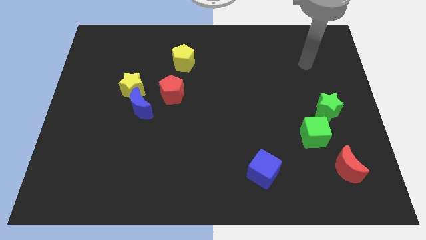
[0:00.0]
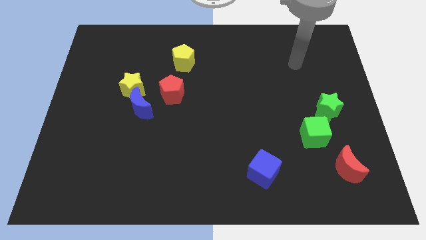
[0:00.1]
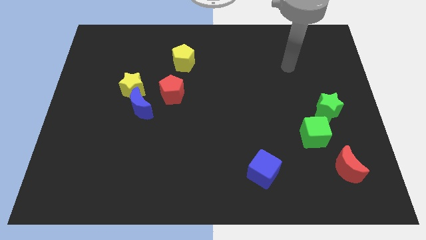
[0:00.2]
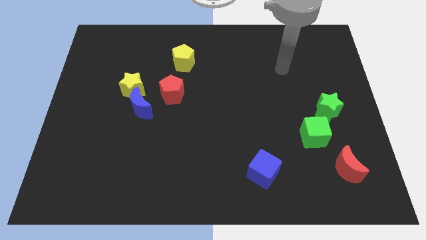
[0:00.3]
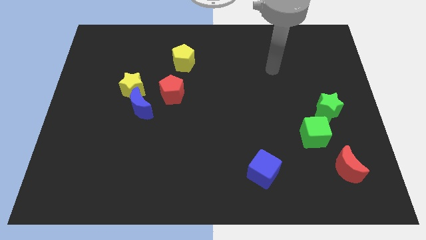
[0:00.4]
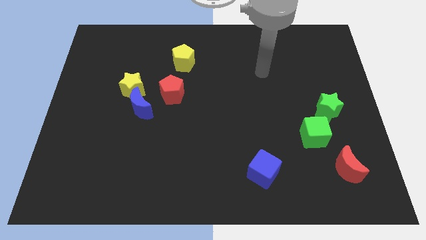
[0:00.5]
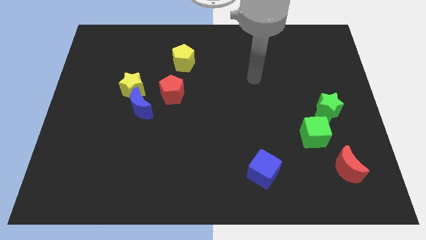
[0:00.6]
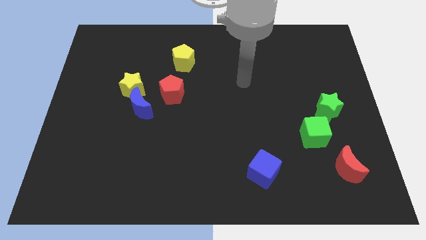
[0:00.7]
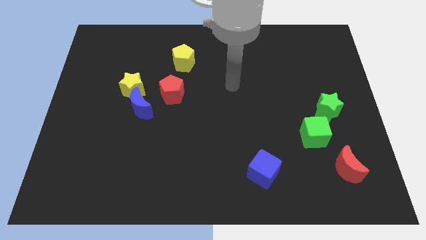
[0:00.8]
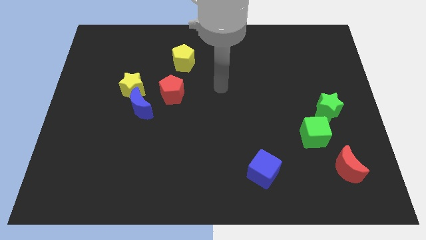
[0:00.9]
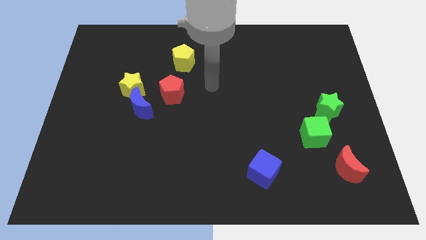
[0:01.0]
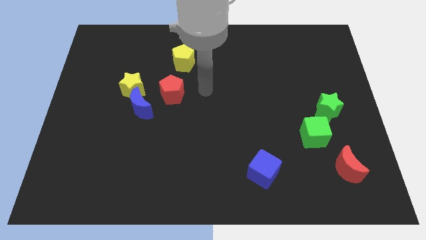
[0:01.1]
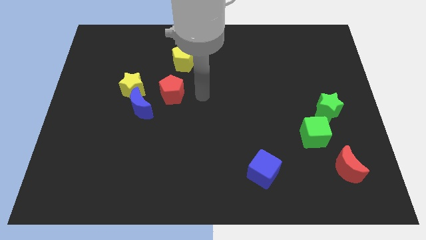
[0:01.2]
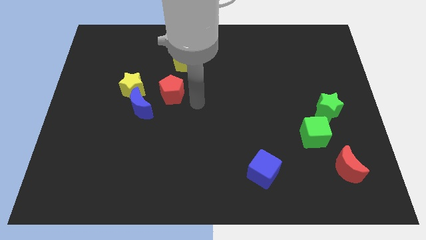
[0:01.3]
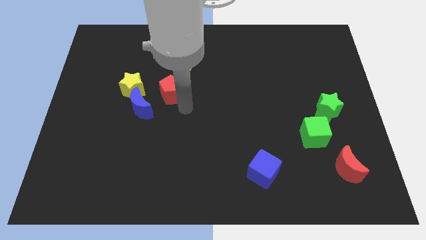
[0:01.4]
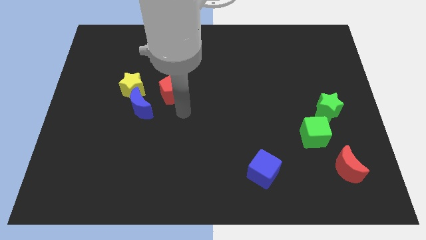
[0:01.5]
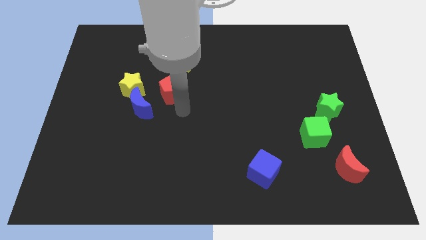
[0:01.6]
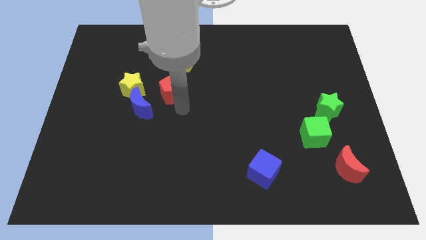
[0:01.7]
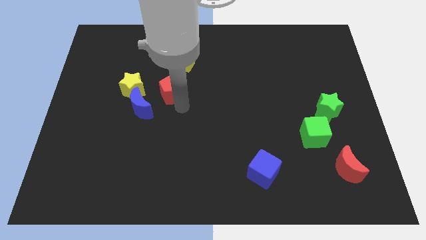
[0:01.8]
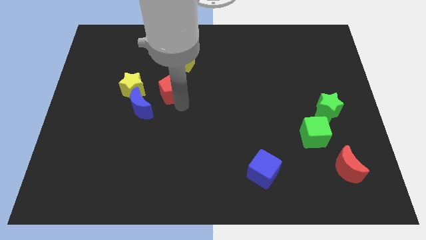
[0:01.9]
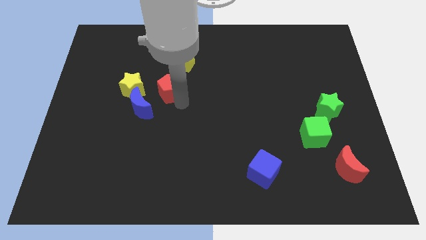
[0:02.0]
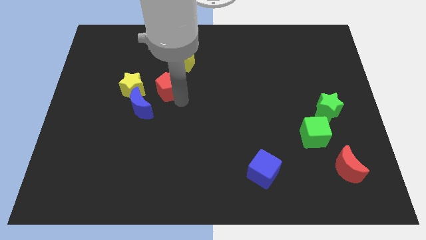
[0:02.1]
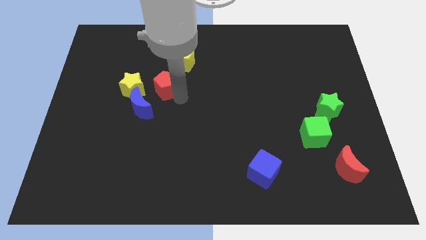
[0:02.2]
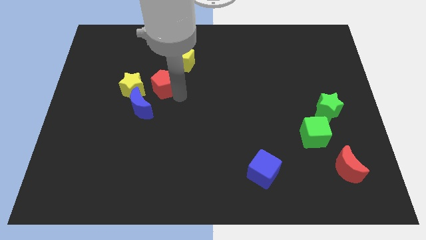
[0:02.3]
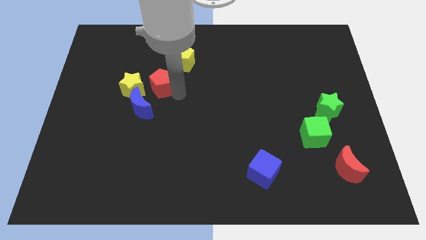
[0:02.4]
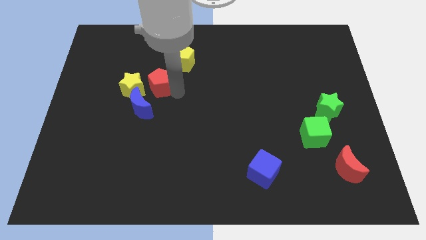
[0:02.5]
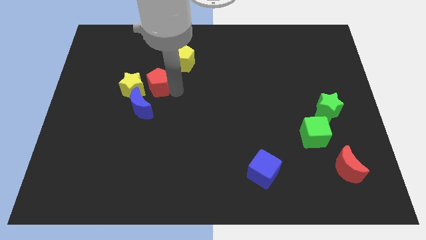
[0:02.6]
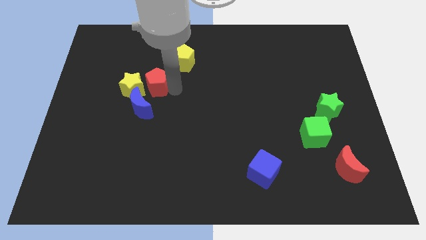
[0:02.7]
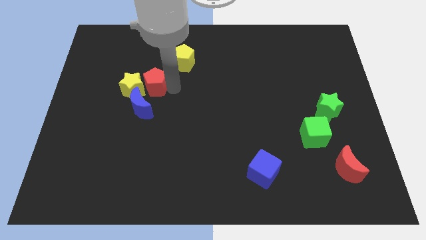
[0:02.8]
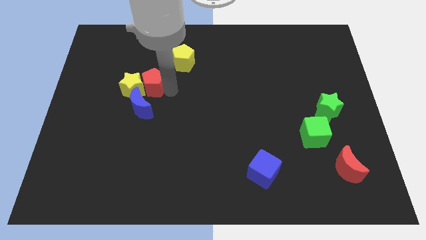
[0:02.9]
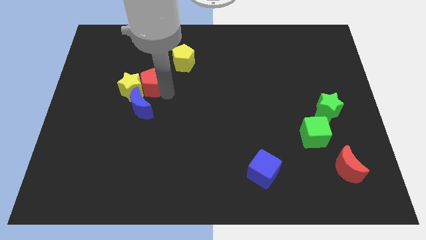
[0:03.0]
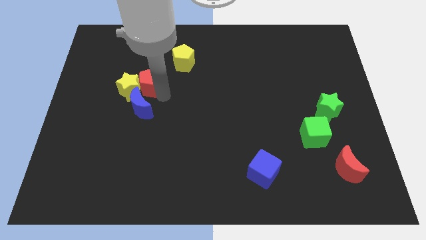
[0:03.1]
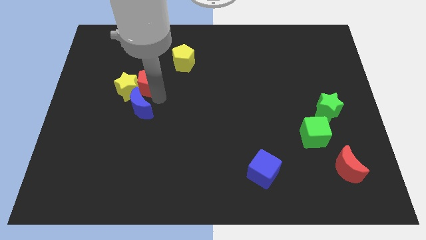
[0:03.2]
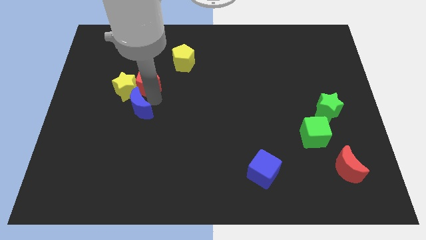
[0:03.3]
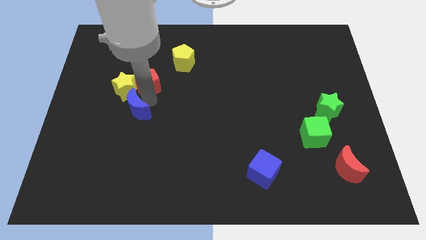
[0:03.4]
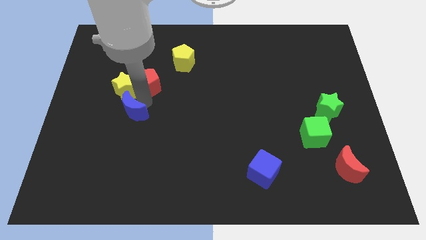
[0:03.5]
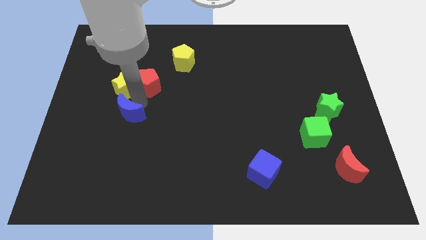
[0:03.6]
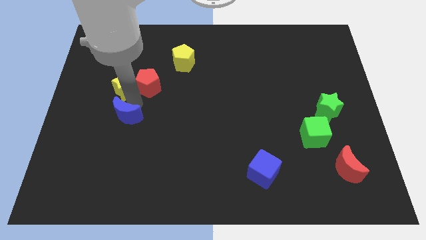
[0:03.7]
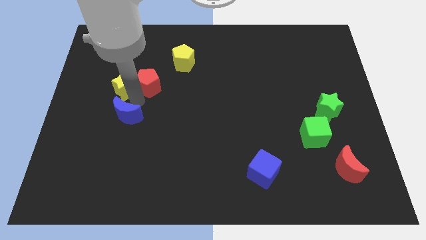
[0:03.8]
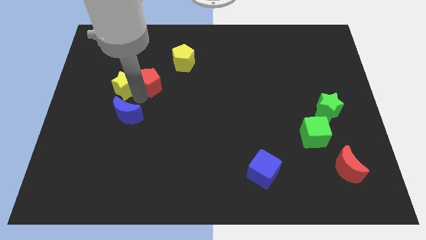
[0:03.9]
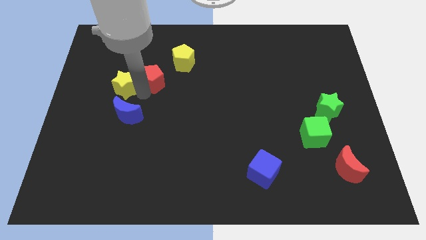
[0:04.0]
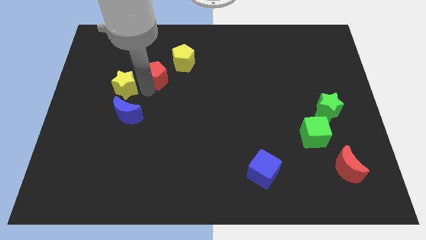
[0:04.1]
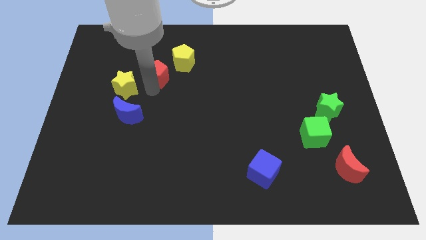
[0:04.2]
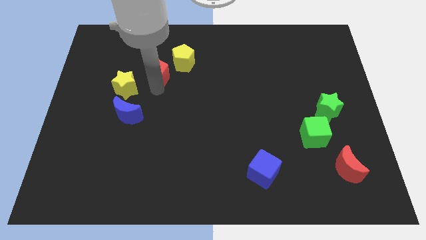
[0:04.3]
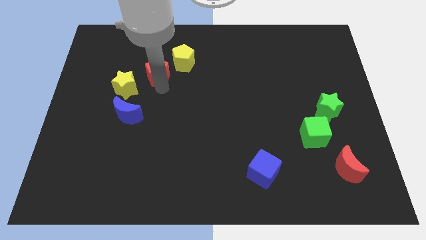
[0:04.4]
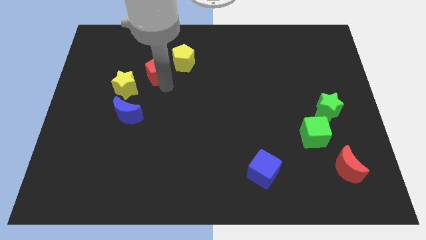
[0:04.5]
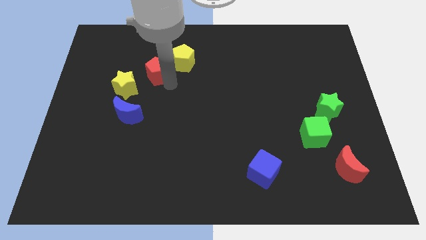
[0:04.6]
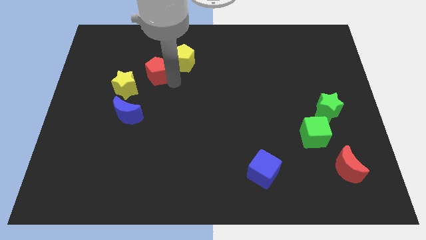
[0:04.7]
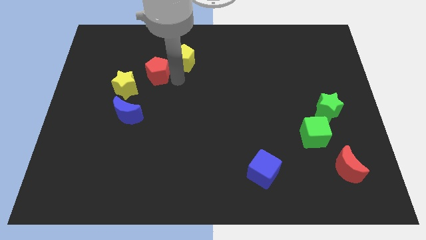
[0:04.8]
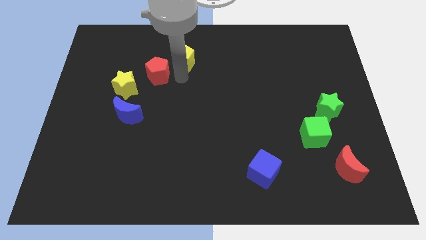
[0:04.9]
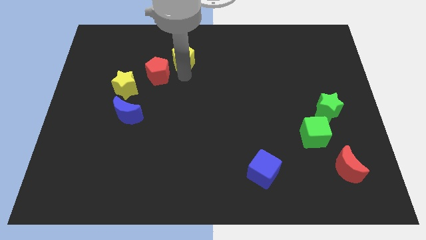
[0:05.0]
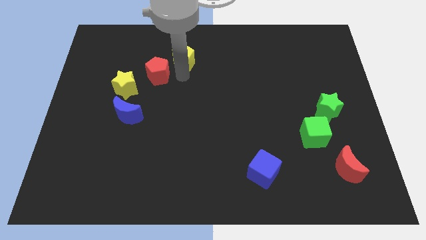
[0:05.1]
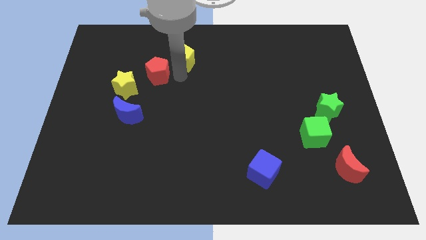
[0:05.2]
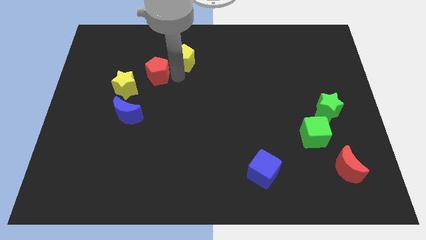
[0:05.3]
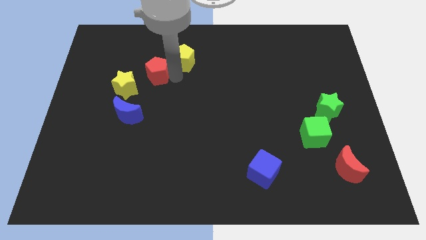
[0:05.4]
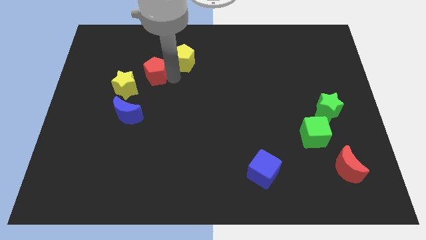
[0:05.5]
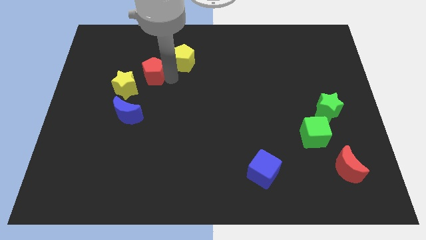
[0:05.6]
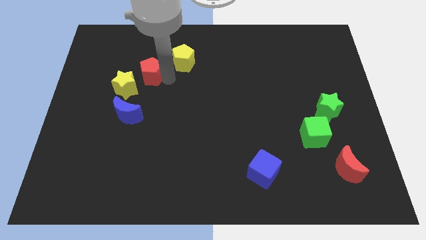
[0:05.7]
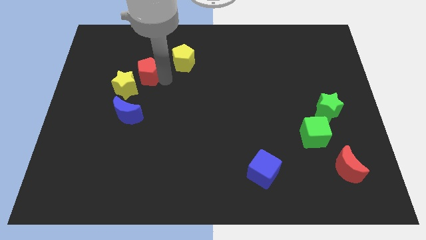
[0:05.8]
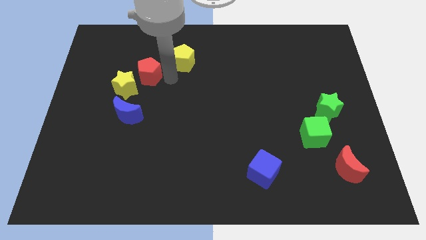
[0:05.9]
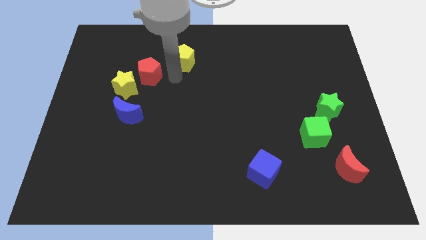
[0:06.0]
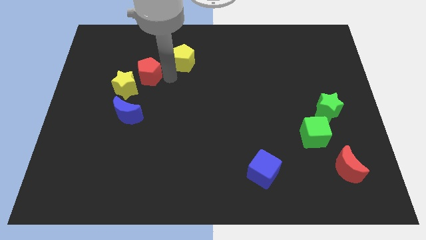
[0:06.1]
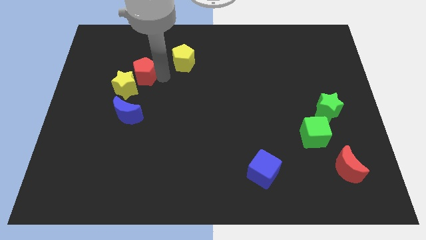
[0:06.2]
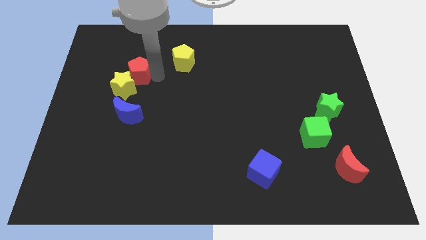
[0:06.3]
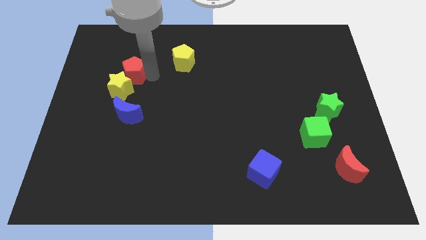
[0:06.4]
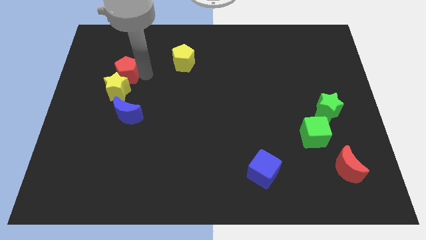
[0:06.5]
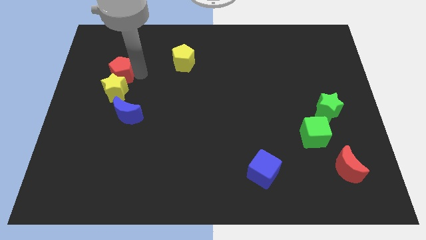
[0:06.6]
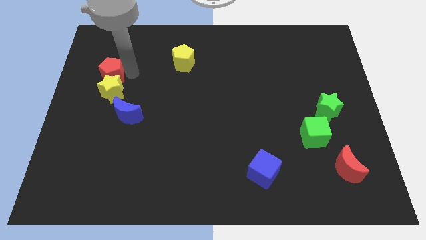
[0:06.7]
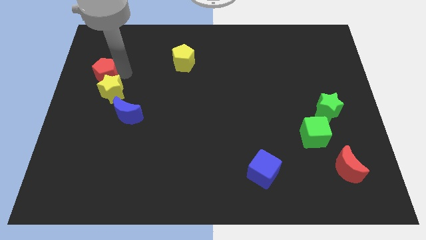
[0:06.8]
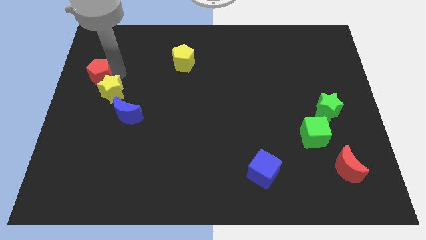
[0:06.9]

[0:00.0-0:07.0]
move the red pentagon to the left side

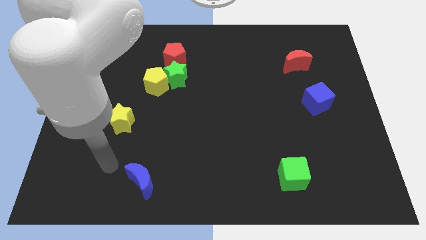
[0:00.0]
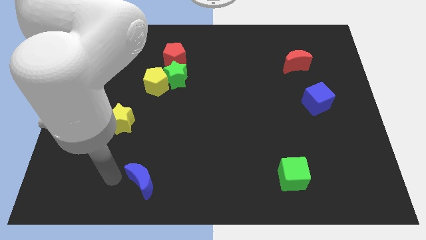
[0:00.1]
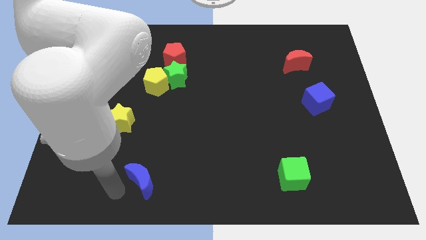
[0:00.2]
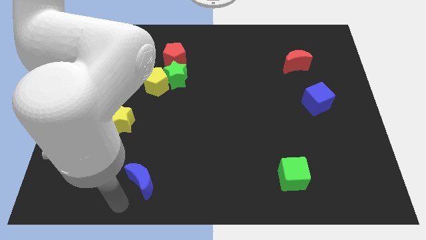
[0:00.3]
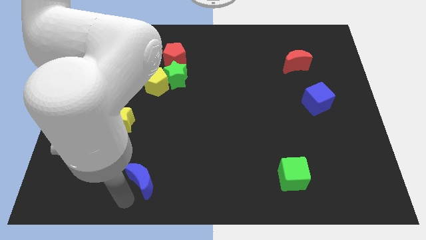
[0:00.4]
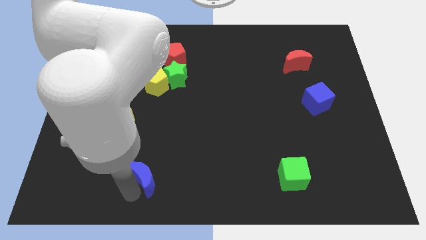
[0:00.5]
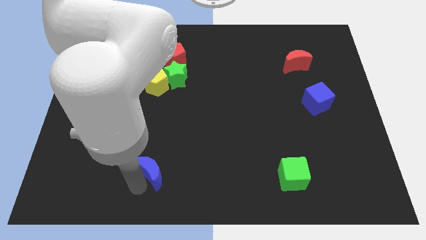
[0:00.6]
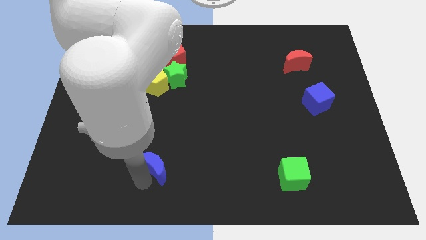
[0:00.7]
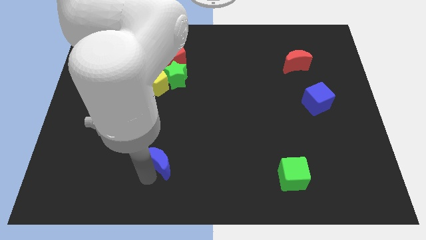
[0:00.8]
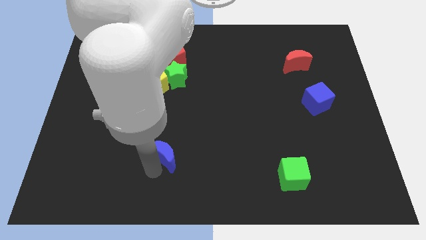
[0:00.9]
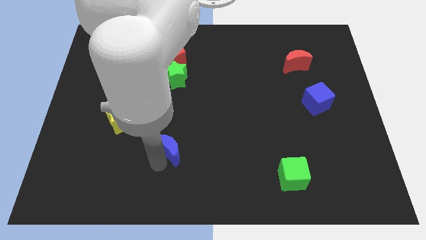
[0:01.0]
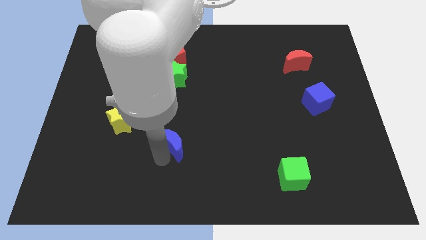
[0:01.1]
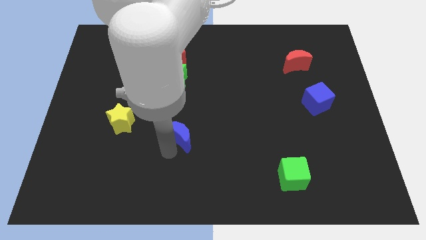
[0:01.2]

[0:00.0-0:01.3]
slide the blue moon to the center
